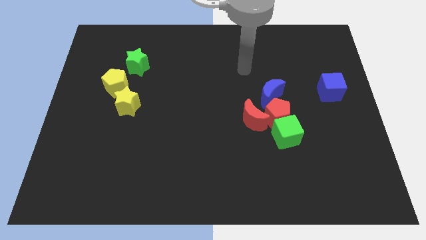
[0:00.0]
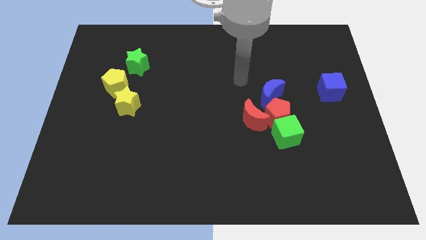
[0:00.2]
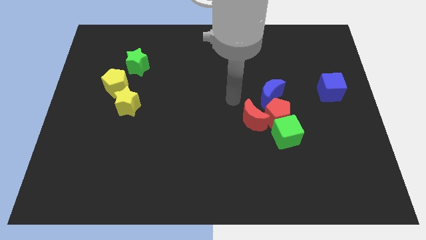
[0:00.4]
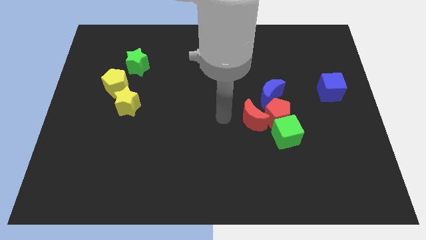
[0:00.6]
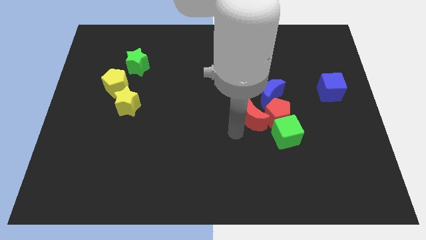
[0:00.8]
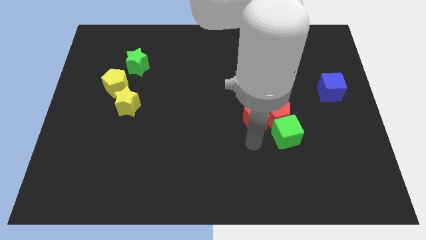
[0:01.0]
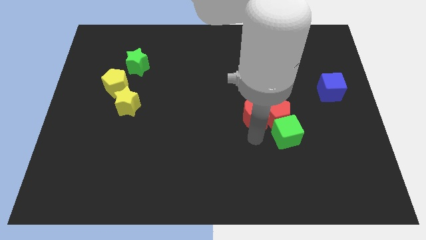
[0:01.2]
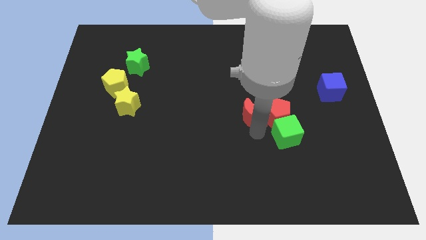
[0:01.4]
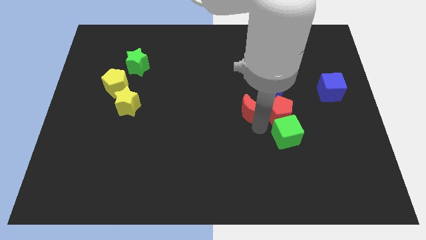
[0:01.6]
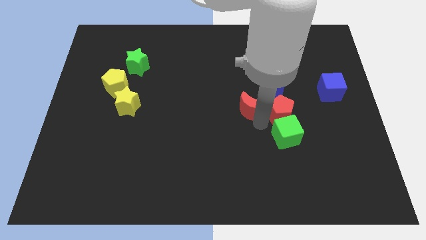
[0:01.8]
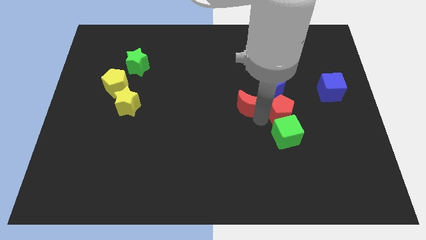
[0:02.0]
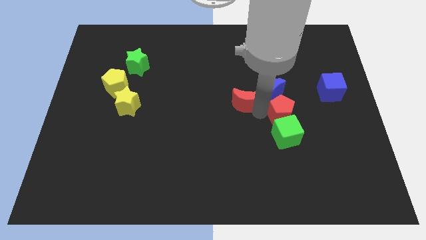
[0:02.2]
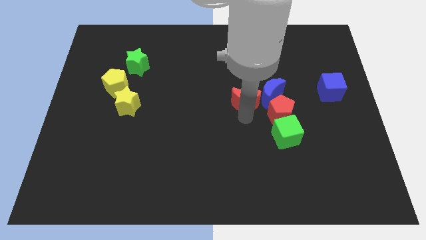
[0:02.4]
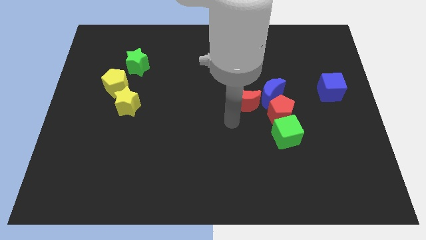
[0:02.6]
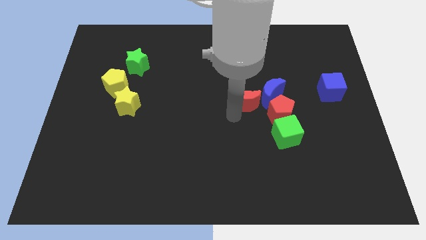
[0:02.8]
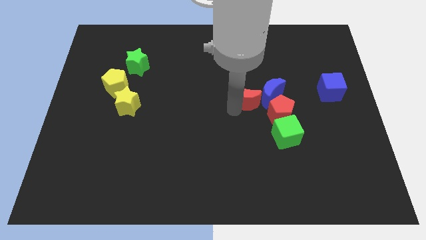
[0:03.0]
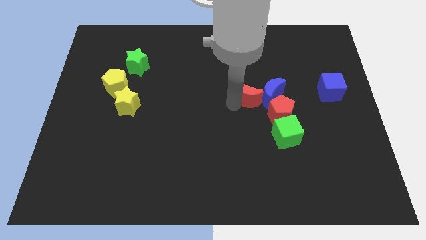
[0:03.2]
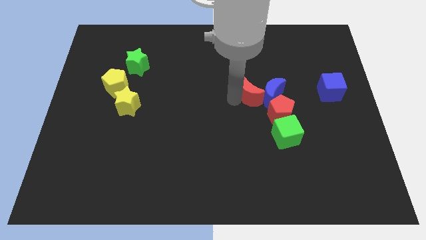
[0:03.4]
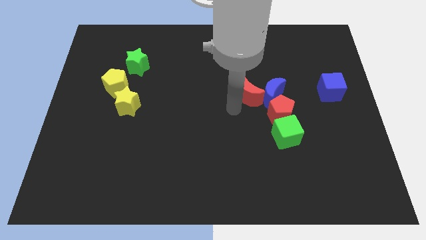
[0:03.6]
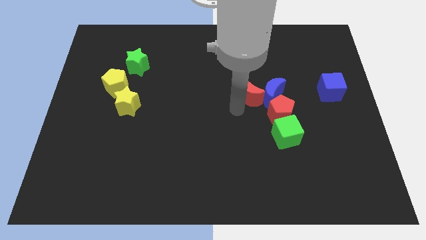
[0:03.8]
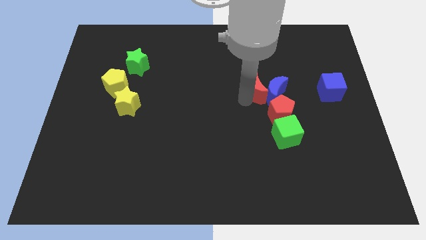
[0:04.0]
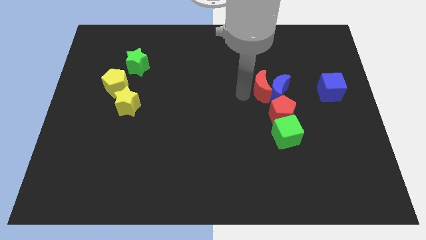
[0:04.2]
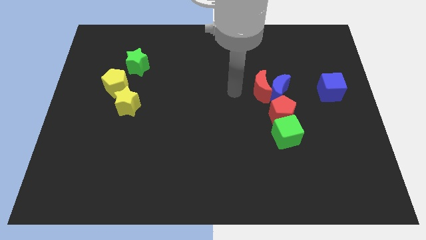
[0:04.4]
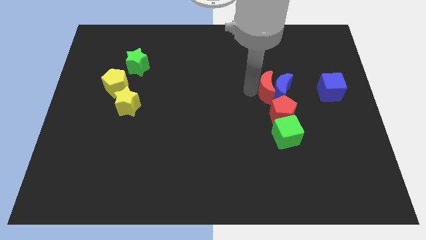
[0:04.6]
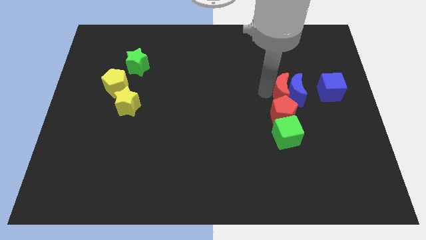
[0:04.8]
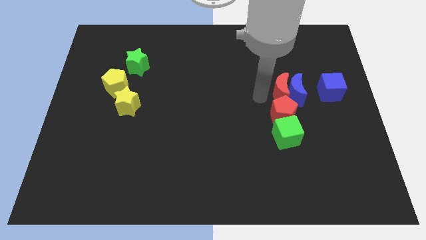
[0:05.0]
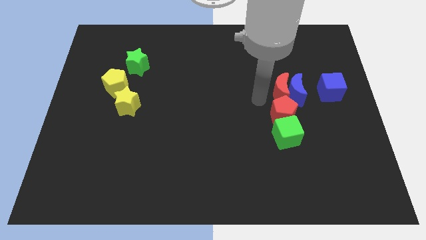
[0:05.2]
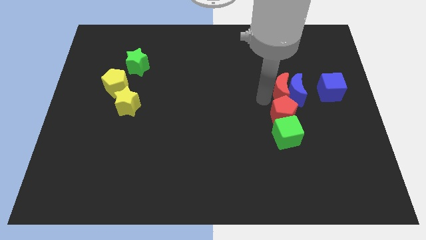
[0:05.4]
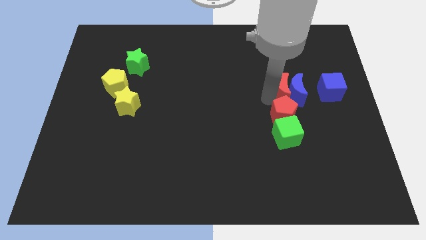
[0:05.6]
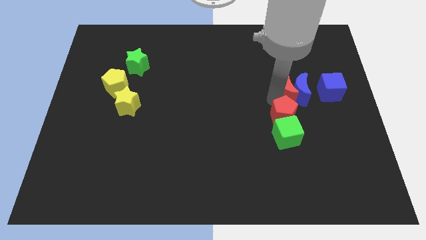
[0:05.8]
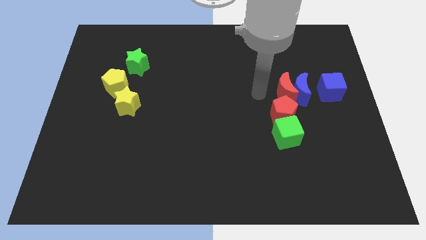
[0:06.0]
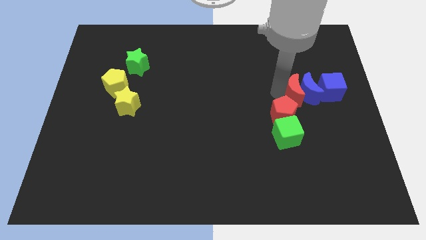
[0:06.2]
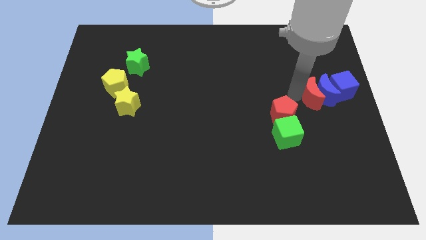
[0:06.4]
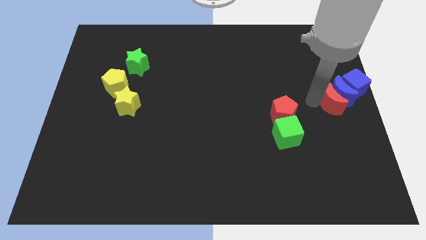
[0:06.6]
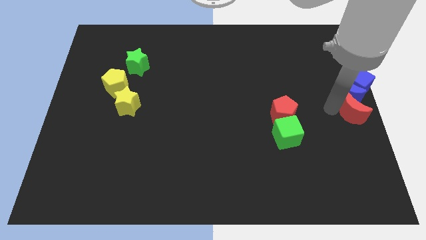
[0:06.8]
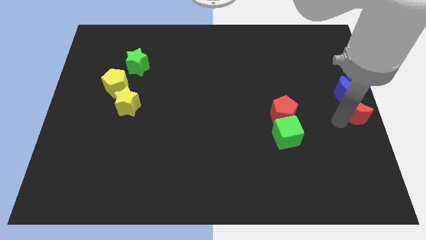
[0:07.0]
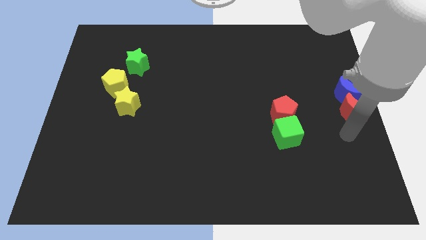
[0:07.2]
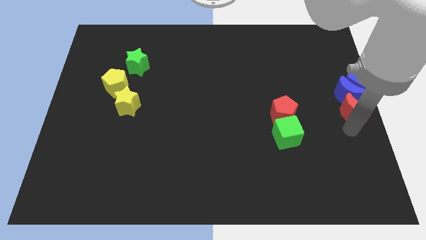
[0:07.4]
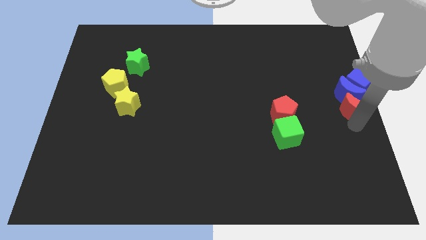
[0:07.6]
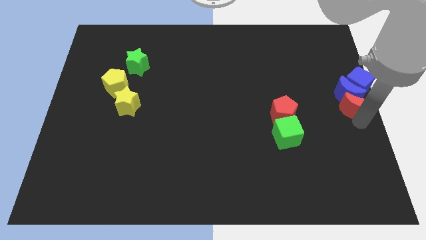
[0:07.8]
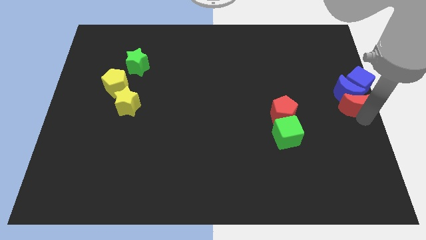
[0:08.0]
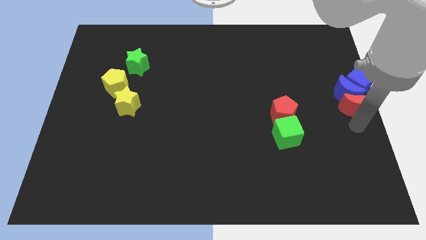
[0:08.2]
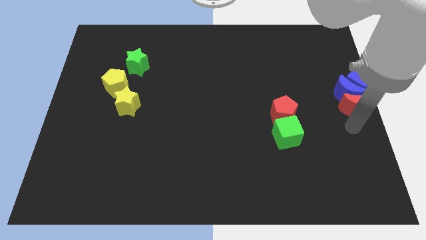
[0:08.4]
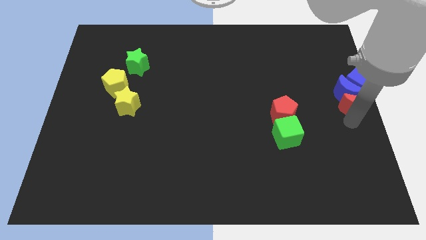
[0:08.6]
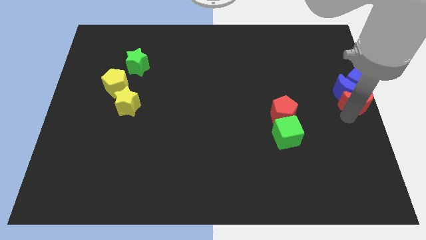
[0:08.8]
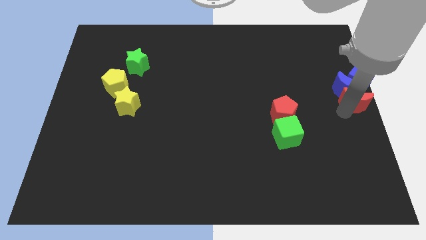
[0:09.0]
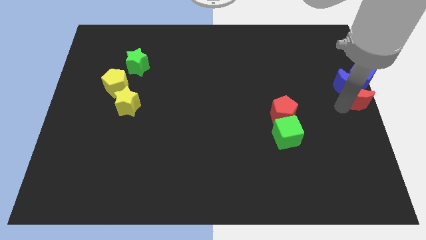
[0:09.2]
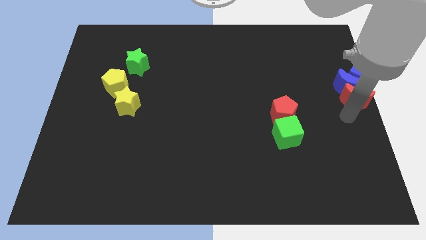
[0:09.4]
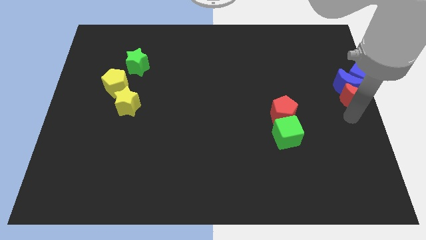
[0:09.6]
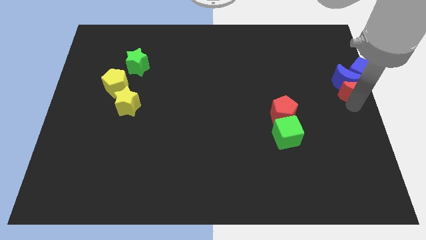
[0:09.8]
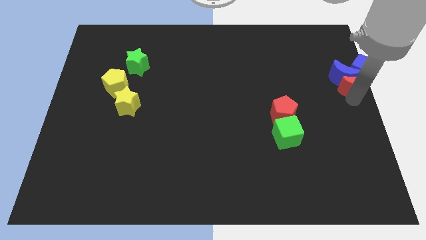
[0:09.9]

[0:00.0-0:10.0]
move the red moon to the blue cube

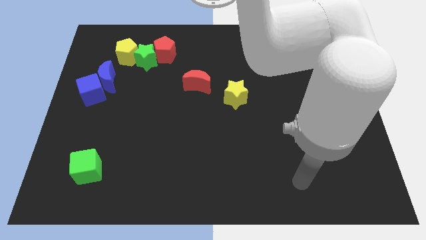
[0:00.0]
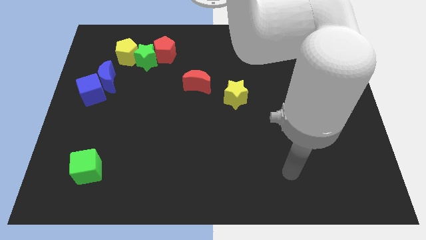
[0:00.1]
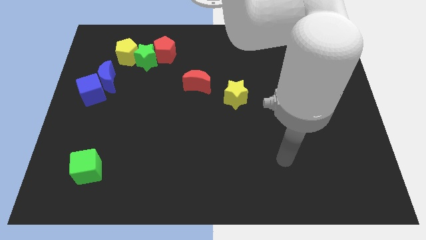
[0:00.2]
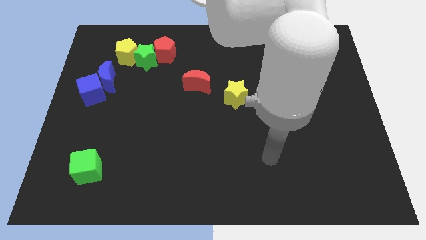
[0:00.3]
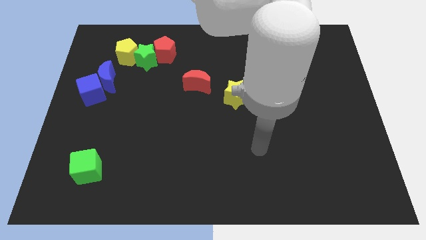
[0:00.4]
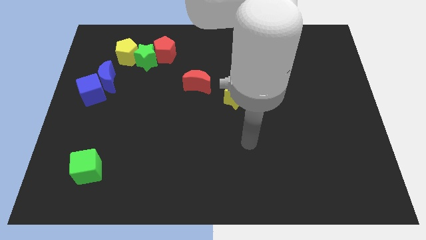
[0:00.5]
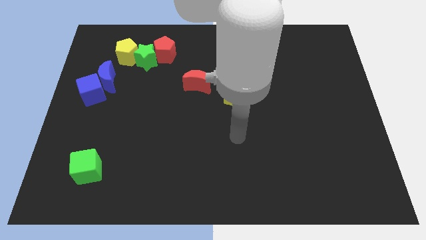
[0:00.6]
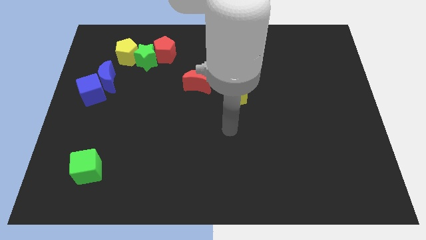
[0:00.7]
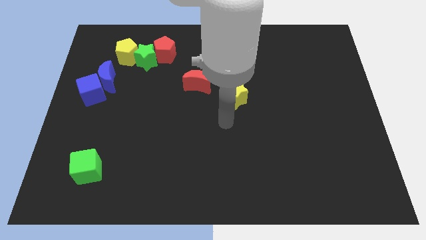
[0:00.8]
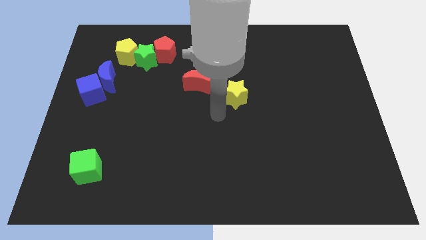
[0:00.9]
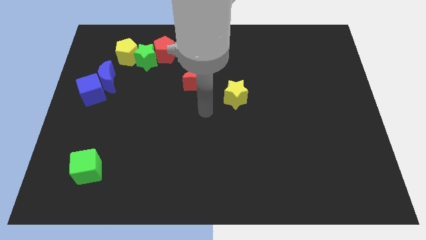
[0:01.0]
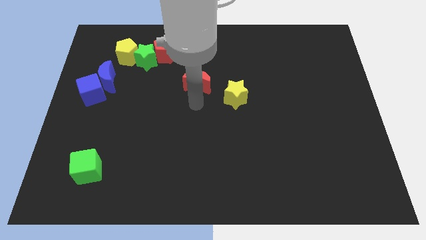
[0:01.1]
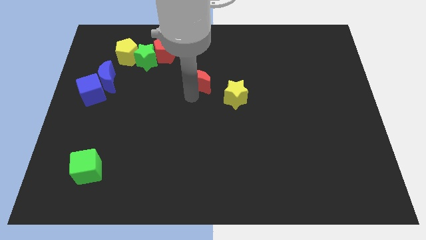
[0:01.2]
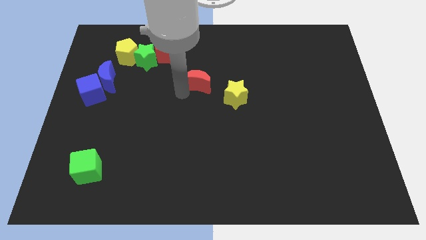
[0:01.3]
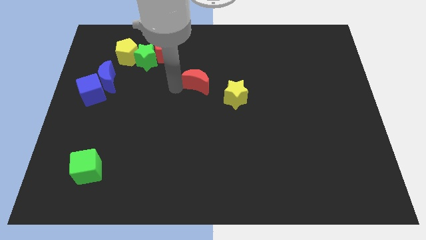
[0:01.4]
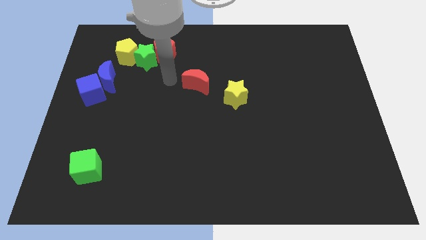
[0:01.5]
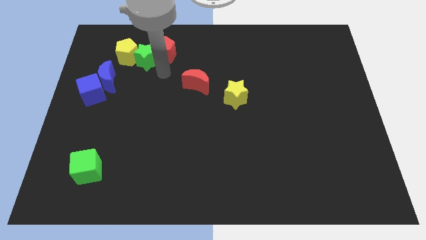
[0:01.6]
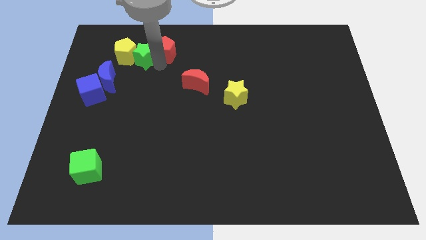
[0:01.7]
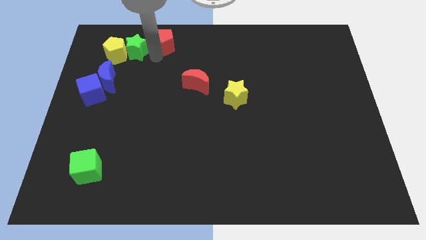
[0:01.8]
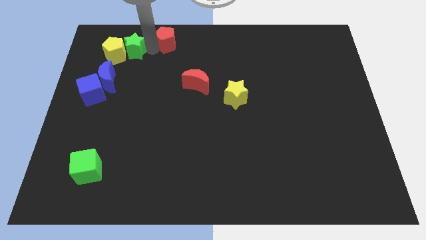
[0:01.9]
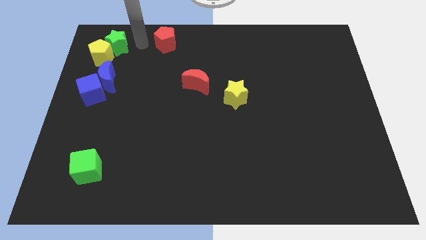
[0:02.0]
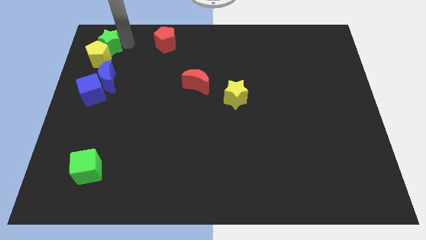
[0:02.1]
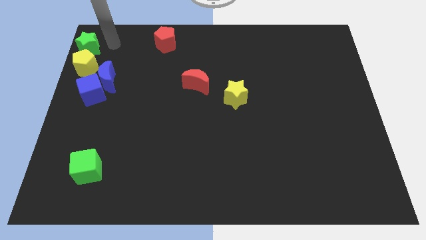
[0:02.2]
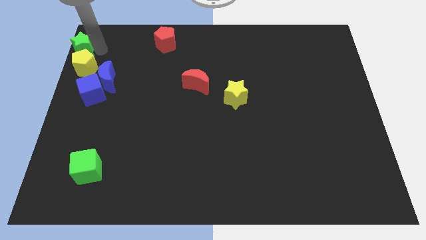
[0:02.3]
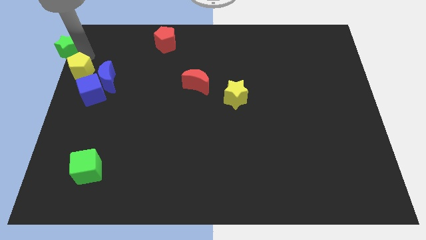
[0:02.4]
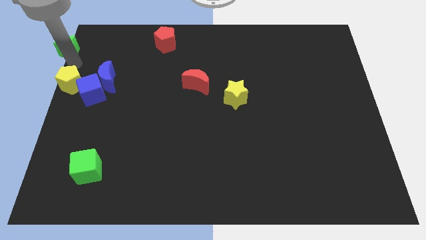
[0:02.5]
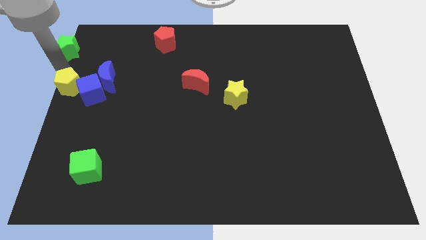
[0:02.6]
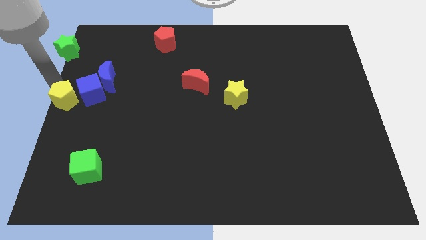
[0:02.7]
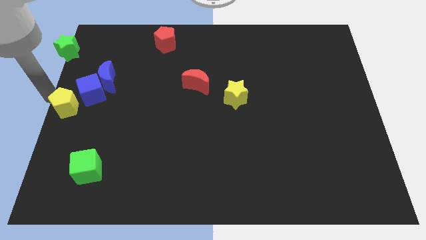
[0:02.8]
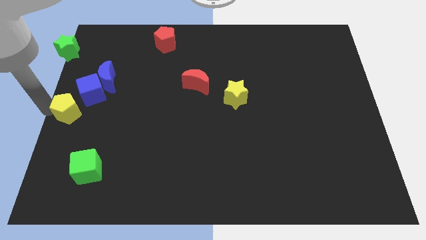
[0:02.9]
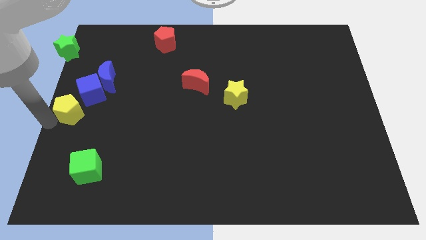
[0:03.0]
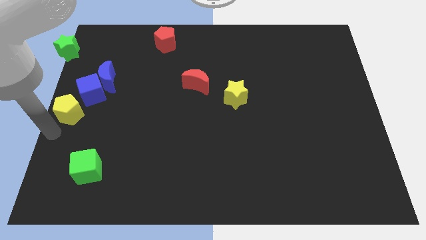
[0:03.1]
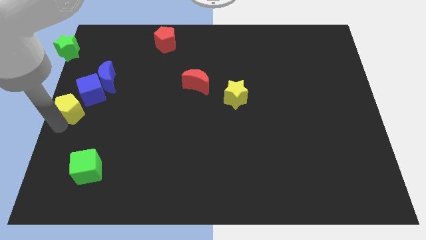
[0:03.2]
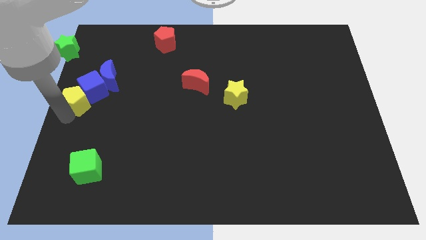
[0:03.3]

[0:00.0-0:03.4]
slide the yellow pentagon towards the blue cube
